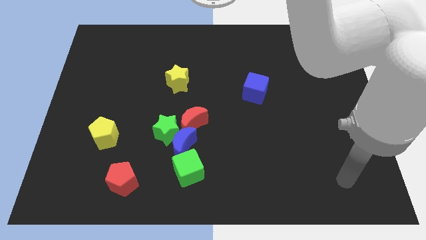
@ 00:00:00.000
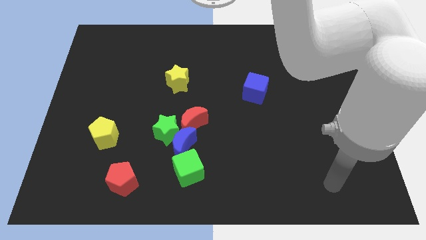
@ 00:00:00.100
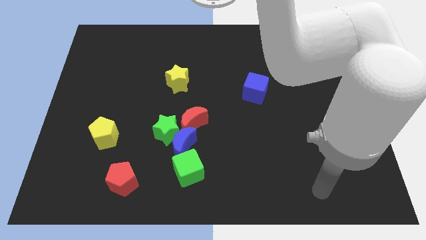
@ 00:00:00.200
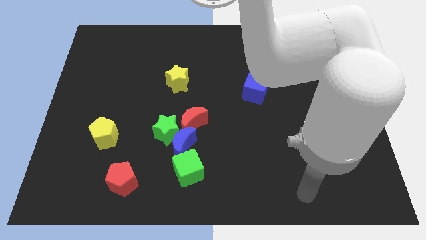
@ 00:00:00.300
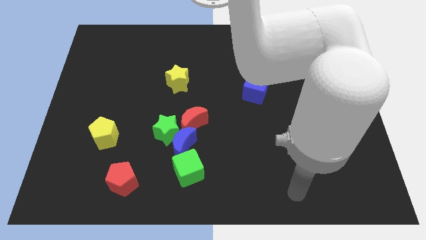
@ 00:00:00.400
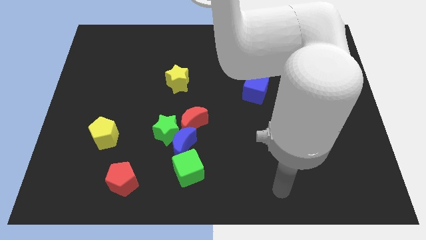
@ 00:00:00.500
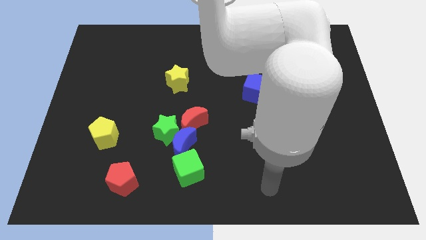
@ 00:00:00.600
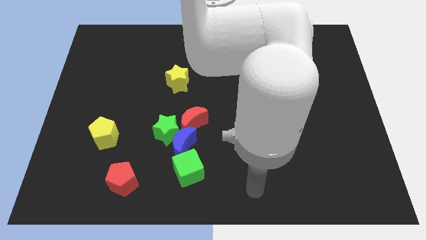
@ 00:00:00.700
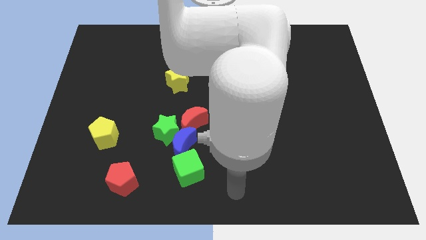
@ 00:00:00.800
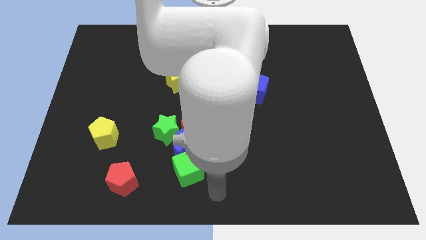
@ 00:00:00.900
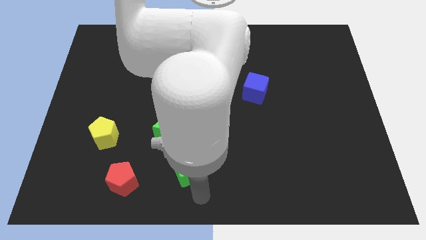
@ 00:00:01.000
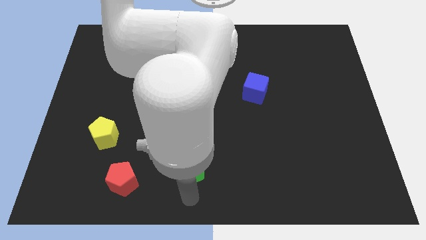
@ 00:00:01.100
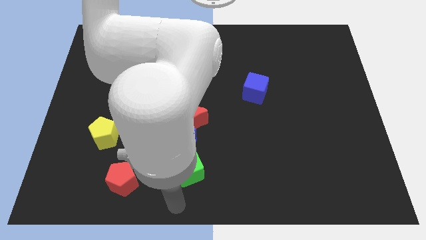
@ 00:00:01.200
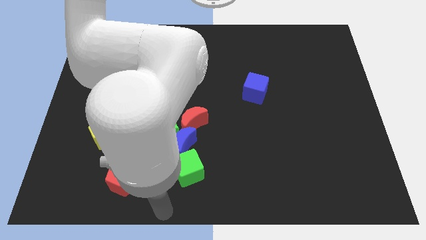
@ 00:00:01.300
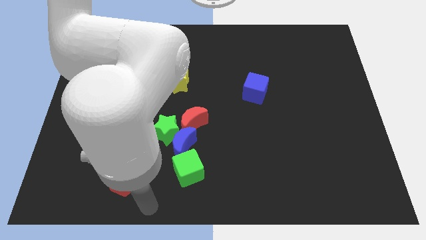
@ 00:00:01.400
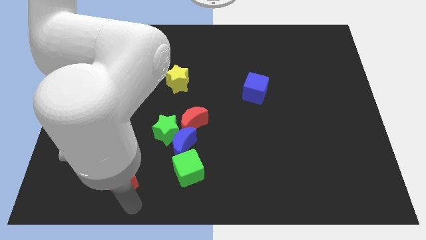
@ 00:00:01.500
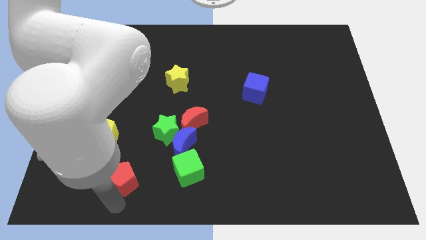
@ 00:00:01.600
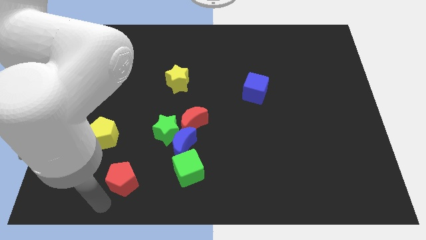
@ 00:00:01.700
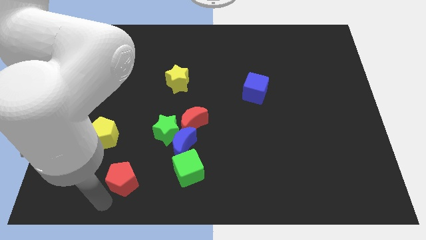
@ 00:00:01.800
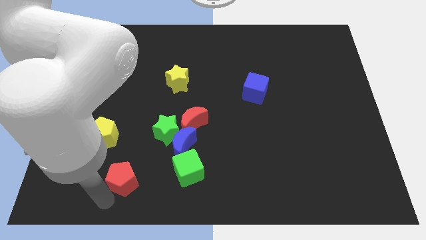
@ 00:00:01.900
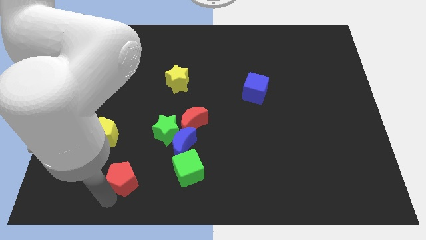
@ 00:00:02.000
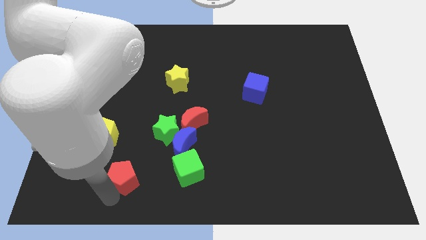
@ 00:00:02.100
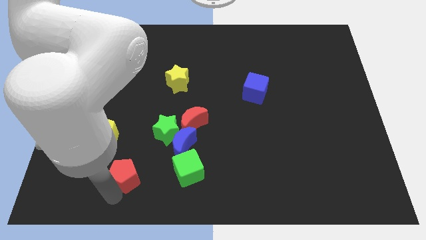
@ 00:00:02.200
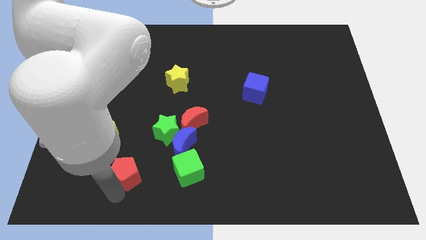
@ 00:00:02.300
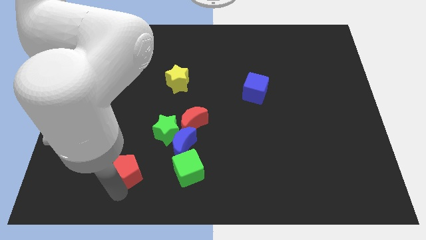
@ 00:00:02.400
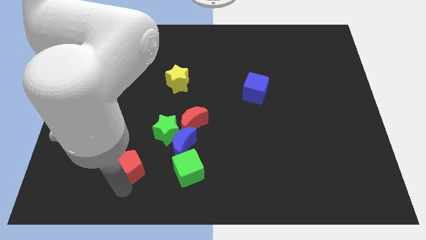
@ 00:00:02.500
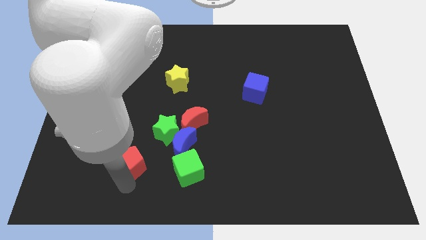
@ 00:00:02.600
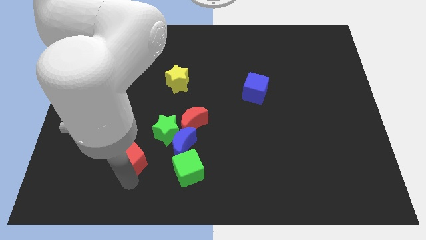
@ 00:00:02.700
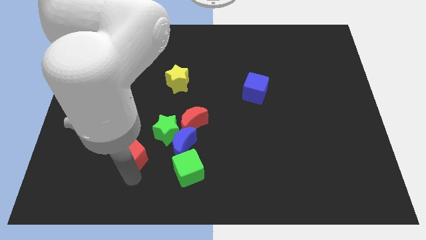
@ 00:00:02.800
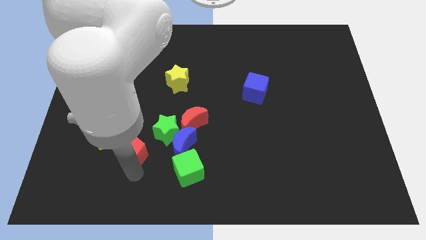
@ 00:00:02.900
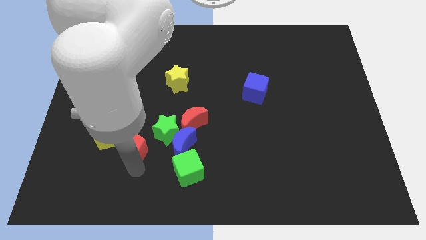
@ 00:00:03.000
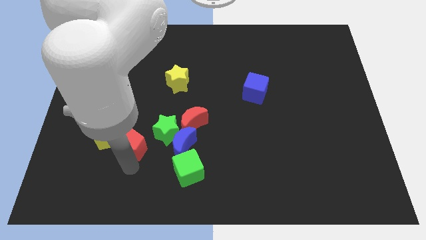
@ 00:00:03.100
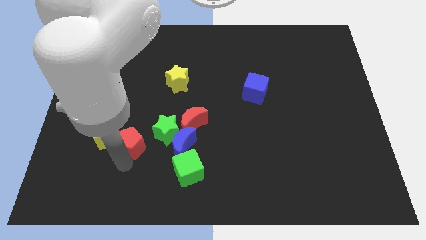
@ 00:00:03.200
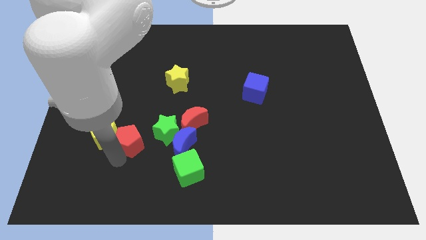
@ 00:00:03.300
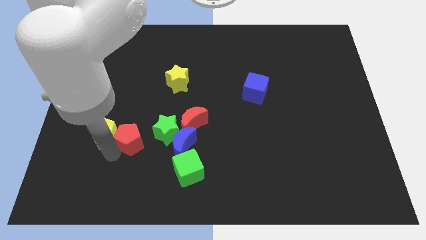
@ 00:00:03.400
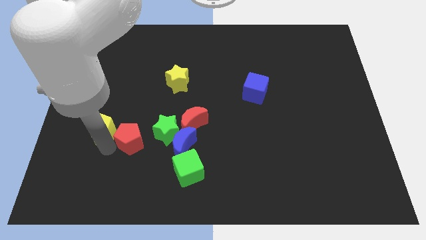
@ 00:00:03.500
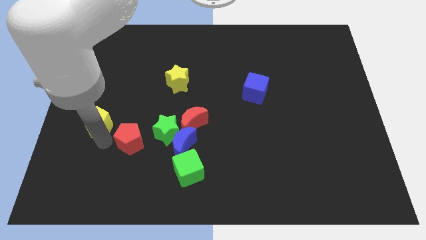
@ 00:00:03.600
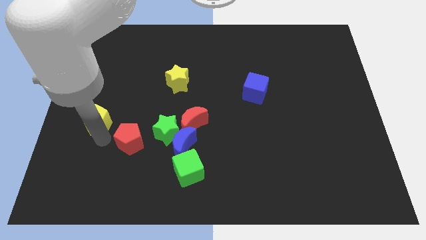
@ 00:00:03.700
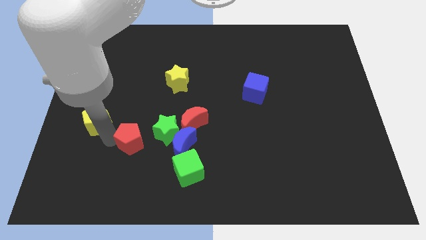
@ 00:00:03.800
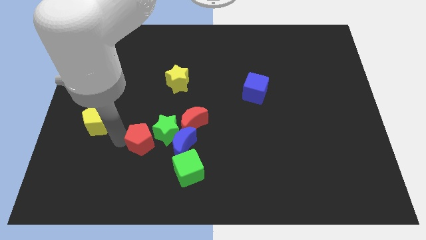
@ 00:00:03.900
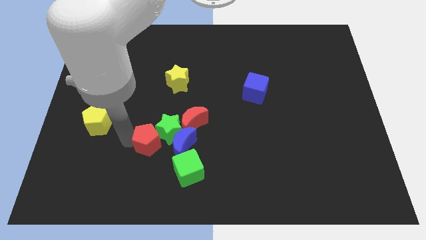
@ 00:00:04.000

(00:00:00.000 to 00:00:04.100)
move the red pentagon to the bottom left side of the red moon

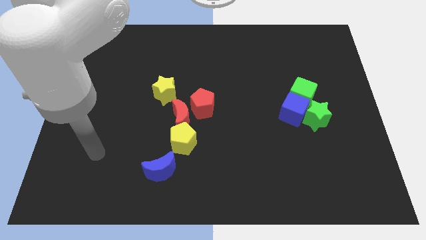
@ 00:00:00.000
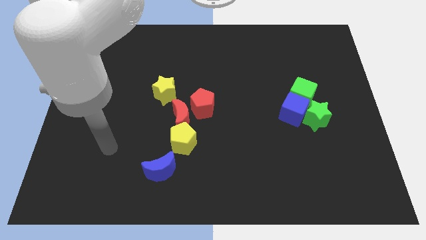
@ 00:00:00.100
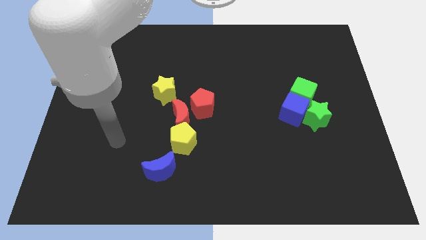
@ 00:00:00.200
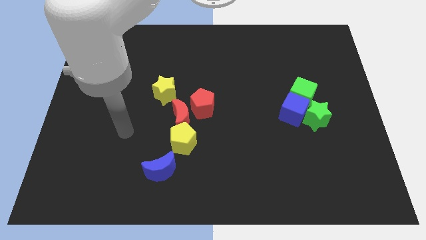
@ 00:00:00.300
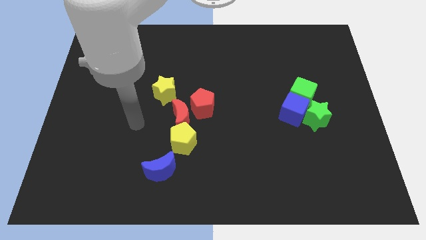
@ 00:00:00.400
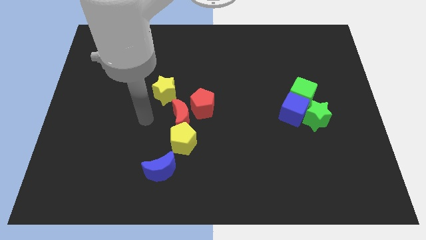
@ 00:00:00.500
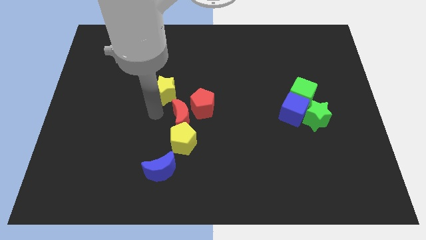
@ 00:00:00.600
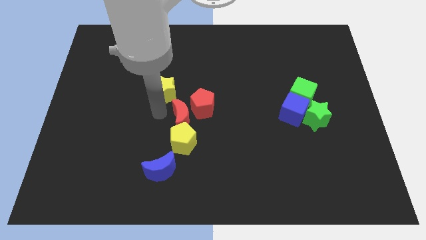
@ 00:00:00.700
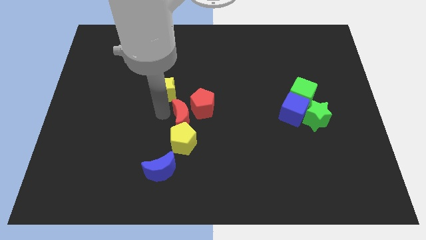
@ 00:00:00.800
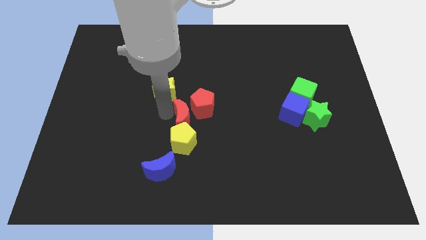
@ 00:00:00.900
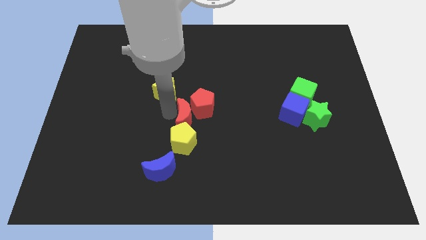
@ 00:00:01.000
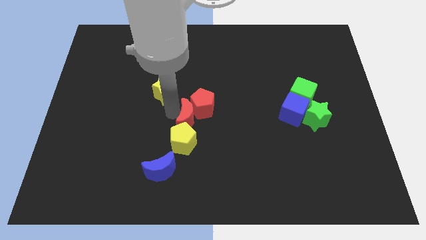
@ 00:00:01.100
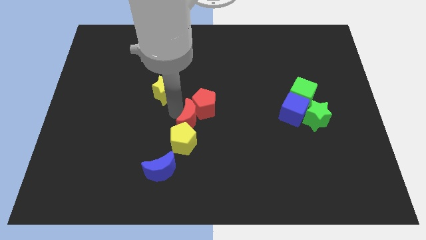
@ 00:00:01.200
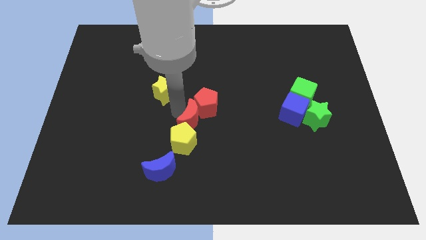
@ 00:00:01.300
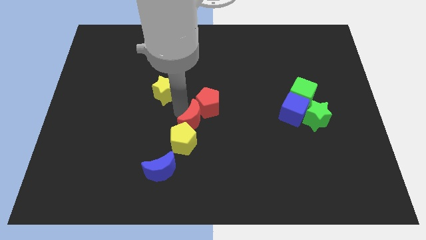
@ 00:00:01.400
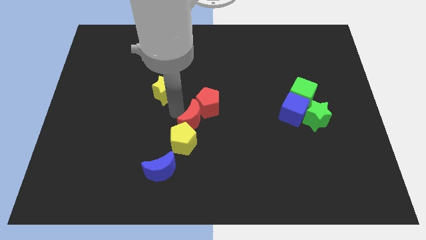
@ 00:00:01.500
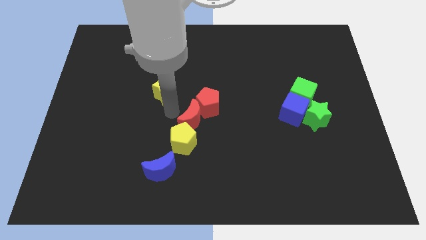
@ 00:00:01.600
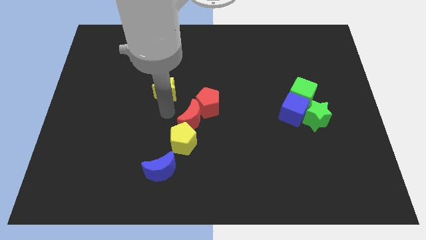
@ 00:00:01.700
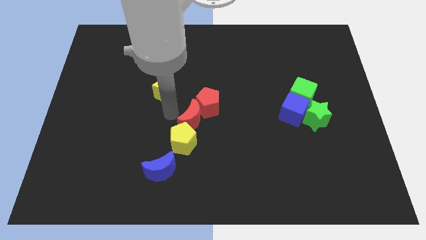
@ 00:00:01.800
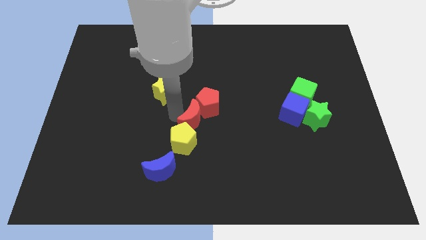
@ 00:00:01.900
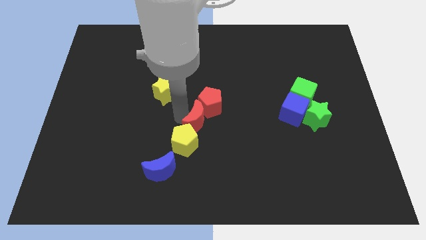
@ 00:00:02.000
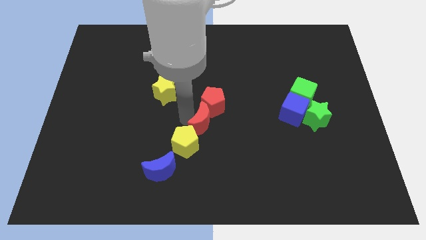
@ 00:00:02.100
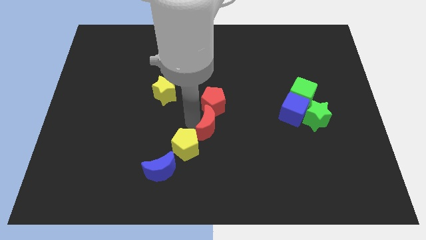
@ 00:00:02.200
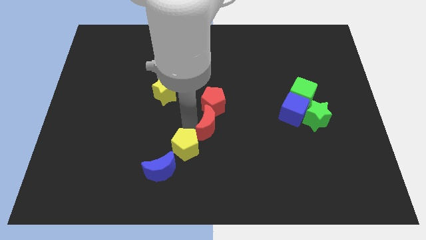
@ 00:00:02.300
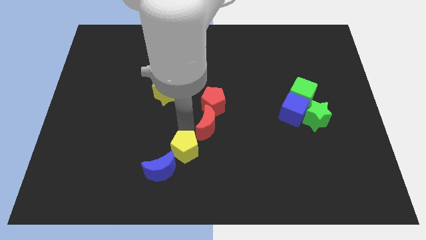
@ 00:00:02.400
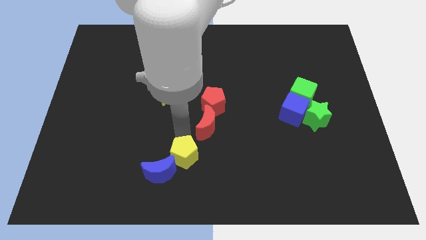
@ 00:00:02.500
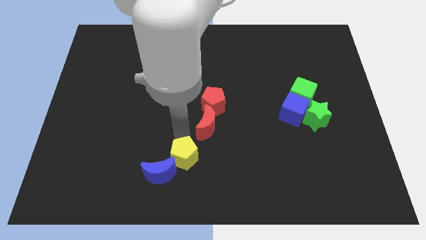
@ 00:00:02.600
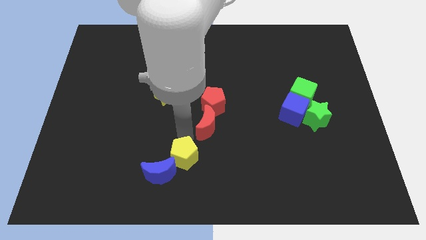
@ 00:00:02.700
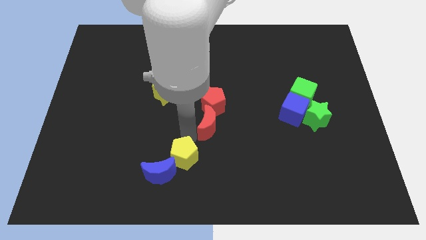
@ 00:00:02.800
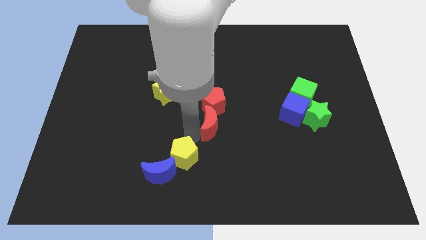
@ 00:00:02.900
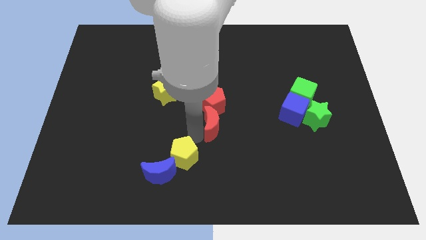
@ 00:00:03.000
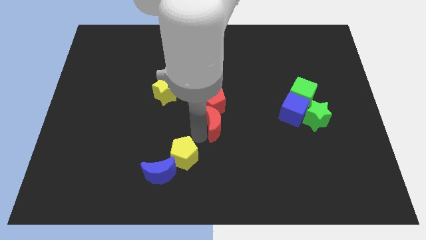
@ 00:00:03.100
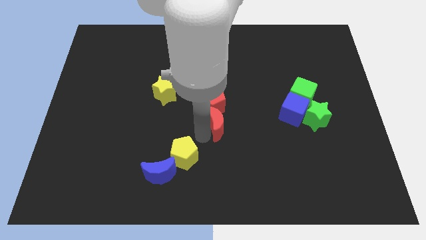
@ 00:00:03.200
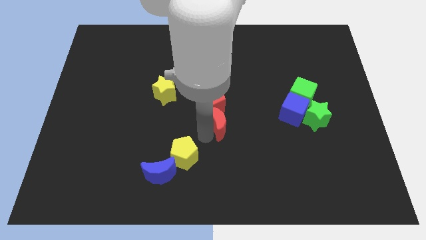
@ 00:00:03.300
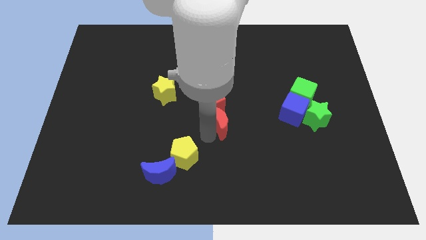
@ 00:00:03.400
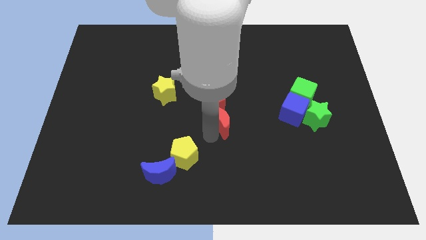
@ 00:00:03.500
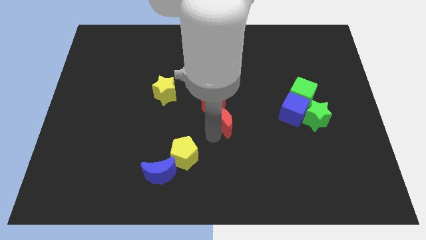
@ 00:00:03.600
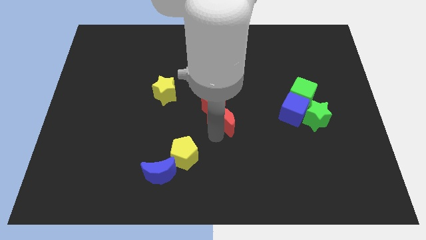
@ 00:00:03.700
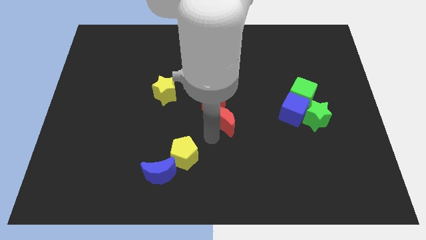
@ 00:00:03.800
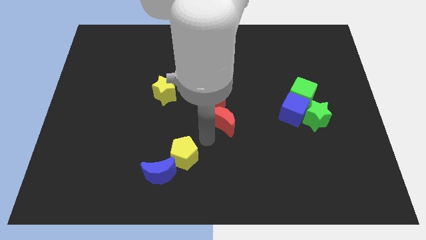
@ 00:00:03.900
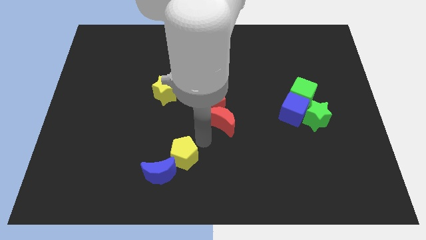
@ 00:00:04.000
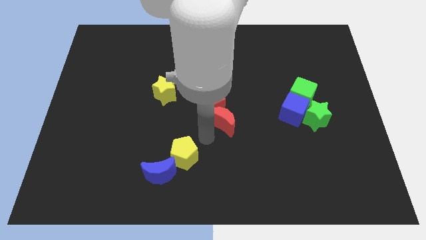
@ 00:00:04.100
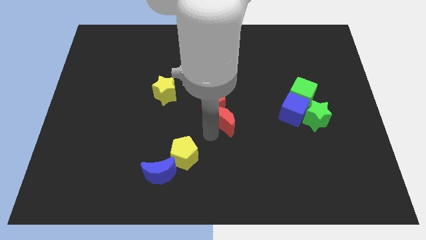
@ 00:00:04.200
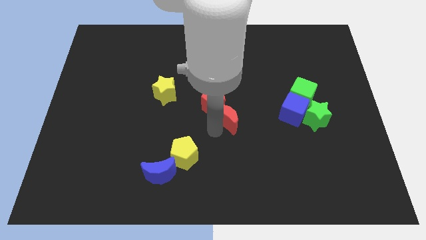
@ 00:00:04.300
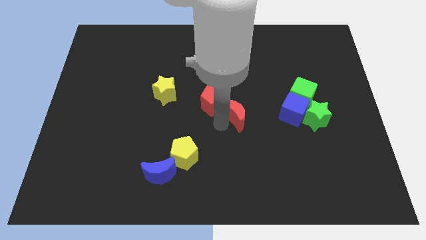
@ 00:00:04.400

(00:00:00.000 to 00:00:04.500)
move the red moon just right of the red pentagon
